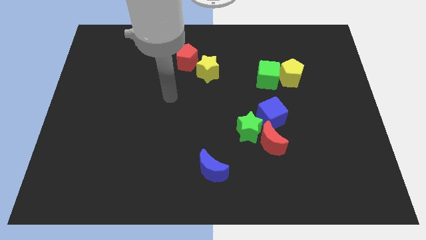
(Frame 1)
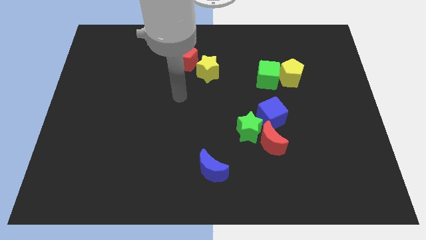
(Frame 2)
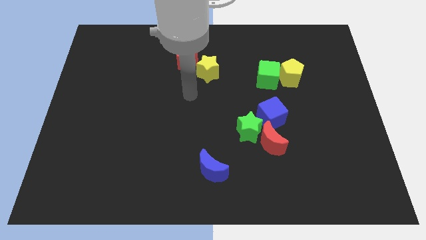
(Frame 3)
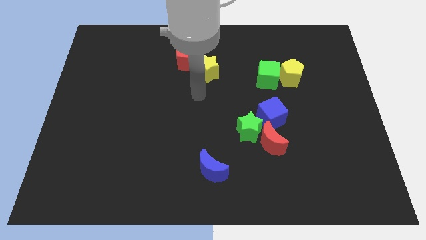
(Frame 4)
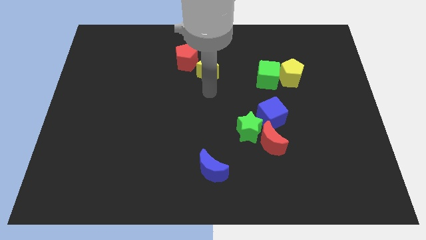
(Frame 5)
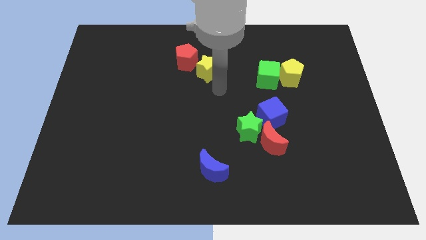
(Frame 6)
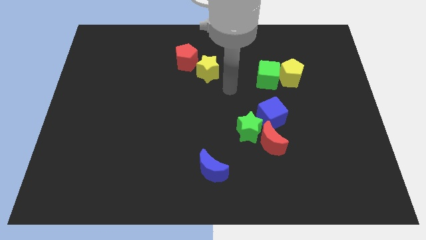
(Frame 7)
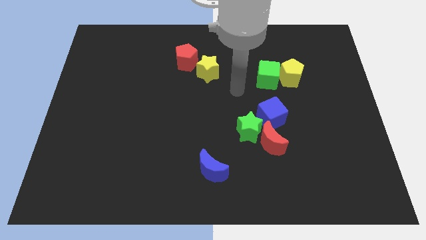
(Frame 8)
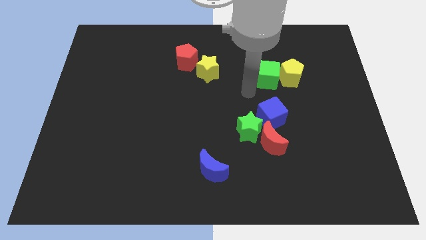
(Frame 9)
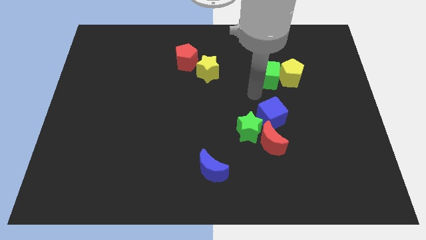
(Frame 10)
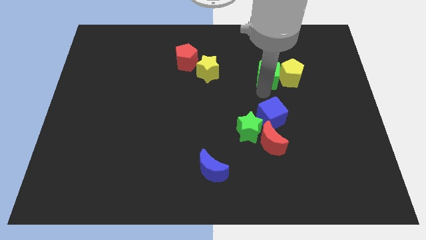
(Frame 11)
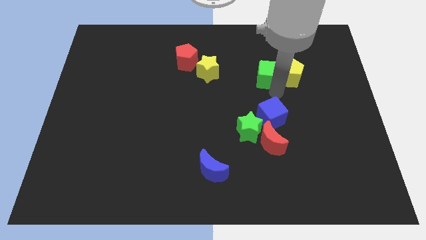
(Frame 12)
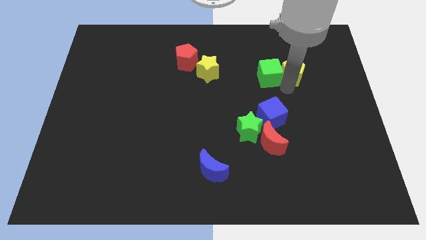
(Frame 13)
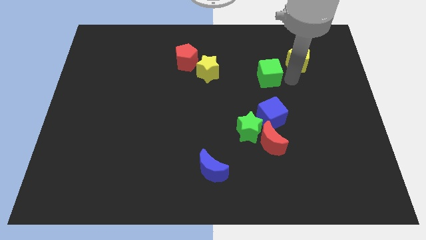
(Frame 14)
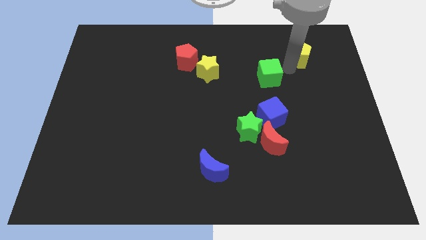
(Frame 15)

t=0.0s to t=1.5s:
move the green cube away from the yellow pentagon

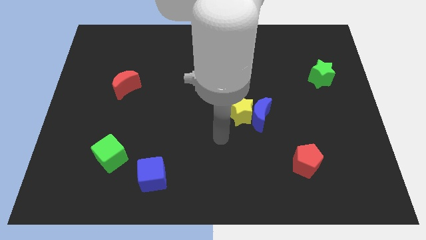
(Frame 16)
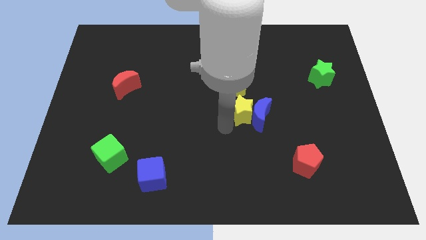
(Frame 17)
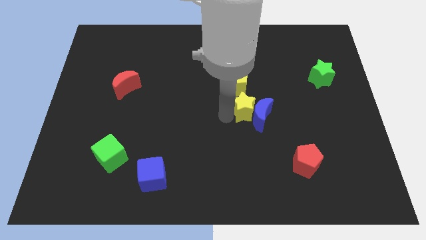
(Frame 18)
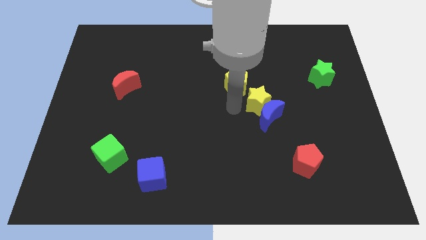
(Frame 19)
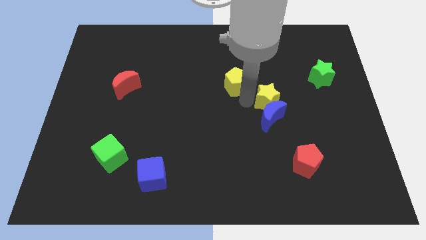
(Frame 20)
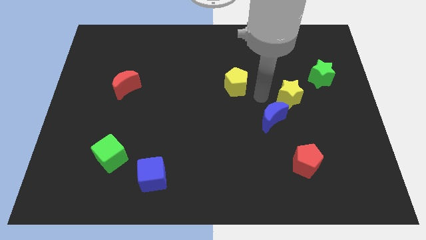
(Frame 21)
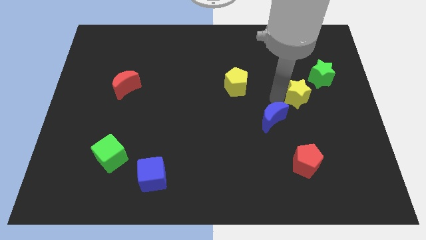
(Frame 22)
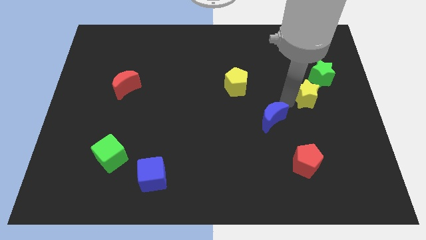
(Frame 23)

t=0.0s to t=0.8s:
move the blue moon away from the yellow star

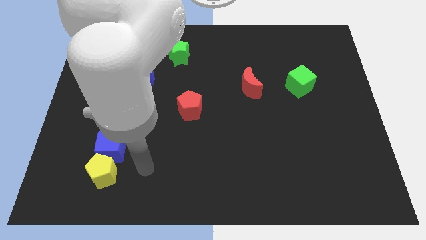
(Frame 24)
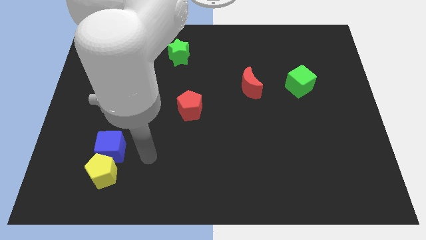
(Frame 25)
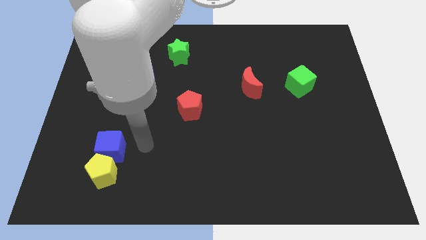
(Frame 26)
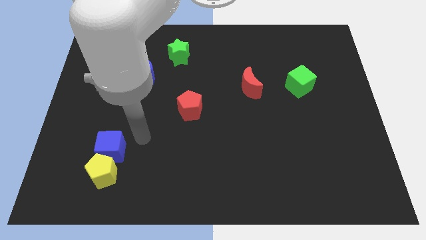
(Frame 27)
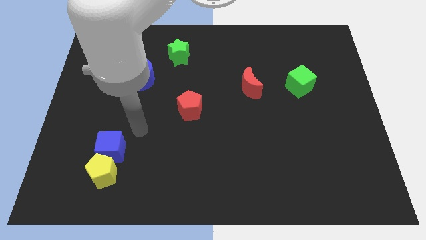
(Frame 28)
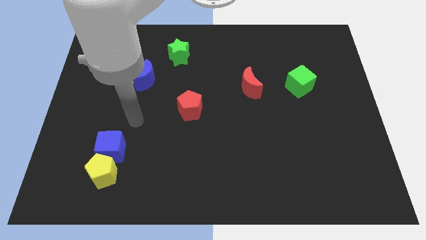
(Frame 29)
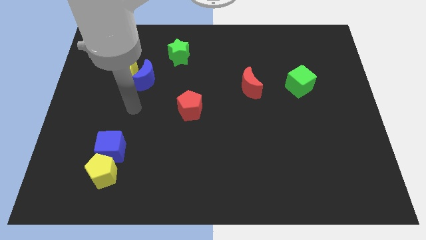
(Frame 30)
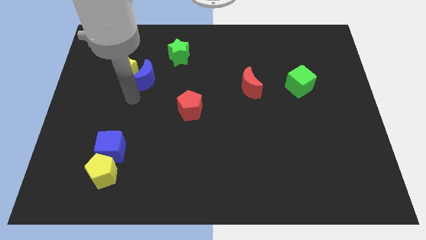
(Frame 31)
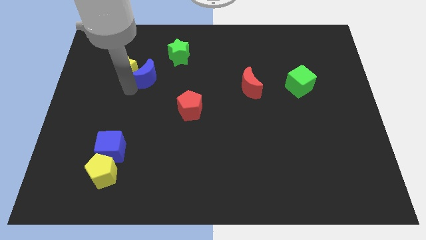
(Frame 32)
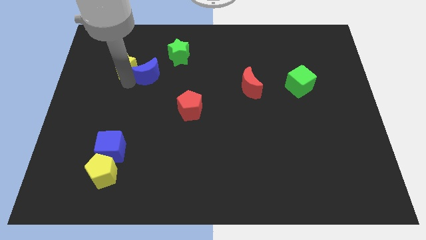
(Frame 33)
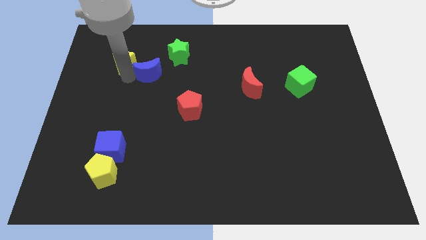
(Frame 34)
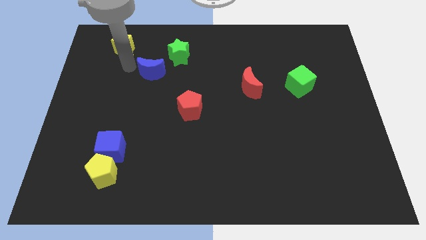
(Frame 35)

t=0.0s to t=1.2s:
pull the blue moon apart from the yellow star

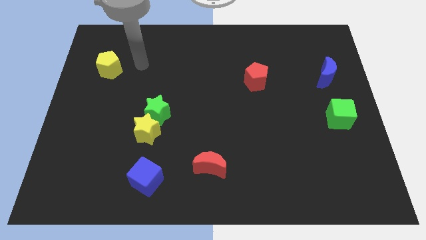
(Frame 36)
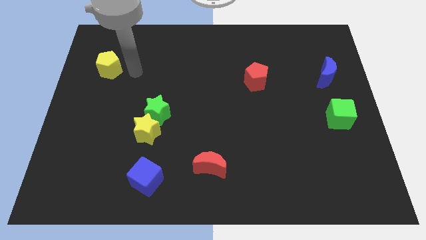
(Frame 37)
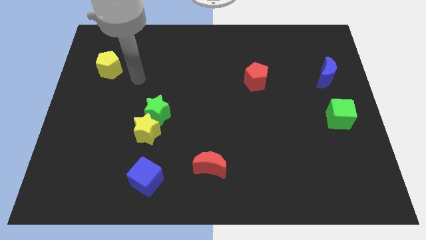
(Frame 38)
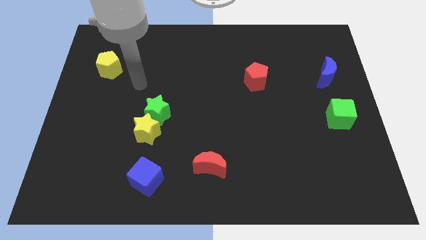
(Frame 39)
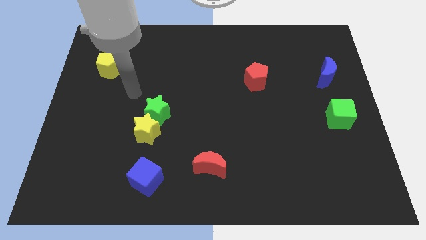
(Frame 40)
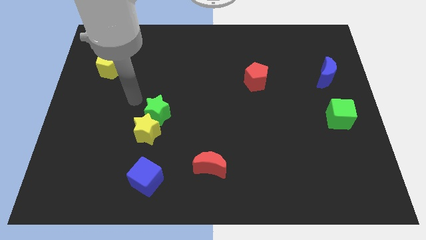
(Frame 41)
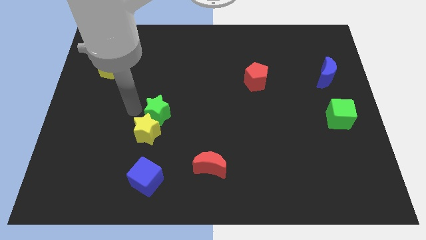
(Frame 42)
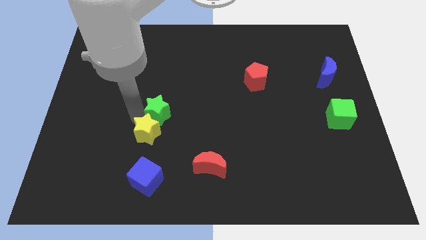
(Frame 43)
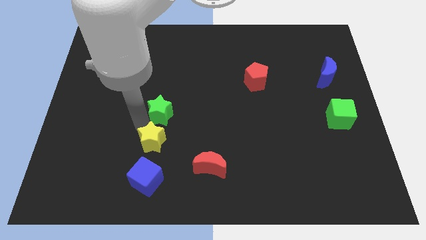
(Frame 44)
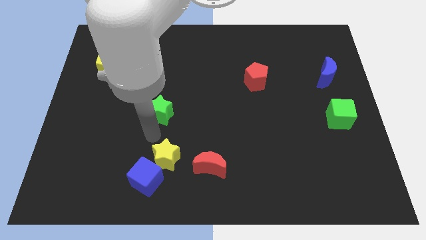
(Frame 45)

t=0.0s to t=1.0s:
pull the green star apart from the yellow star

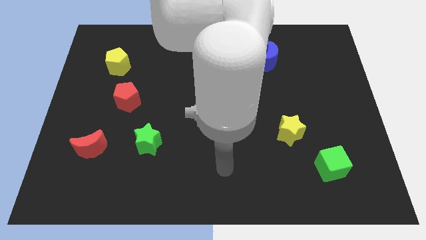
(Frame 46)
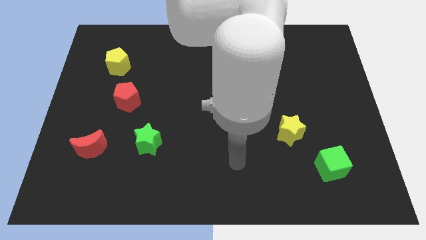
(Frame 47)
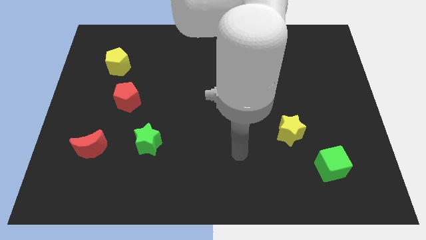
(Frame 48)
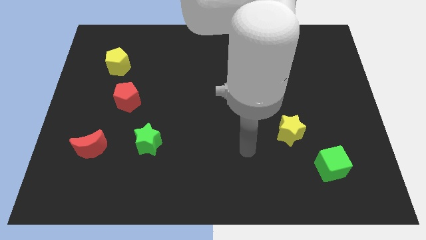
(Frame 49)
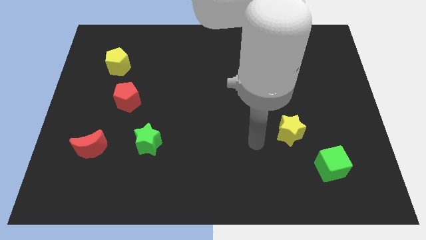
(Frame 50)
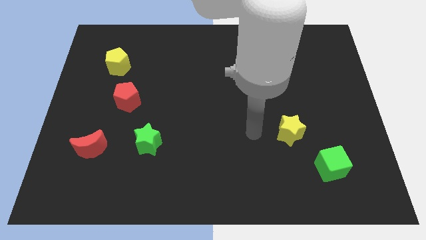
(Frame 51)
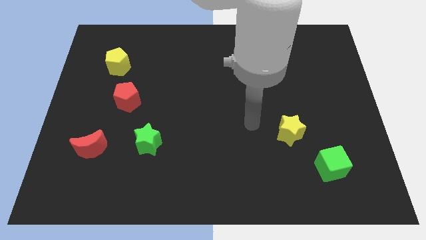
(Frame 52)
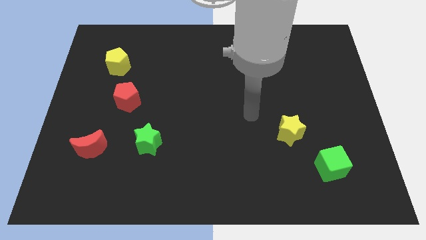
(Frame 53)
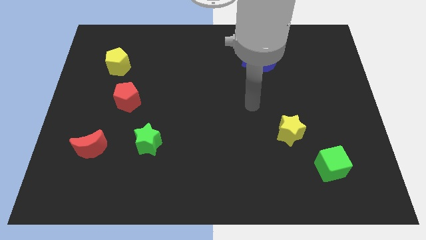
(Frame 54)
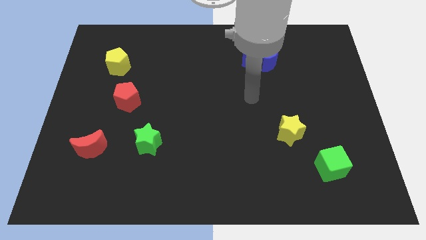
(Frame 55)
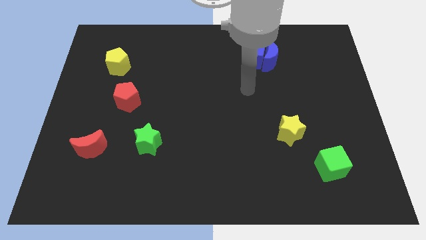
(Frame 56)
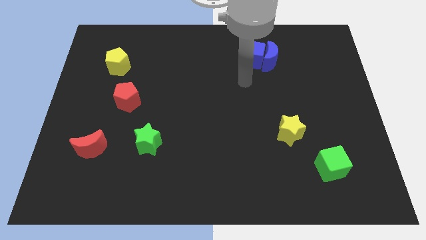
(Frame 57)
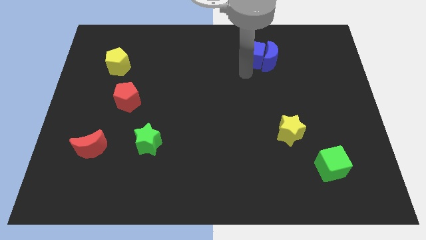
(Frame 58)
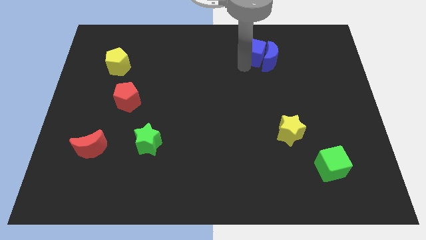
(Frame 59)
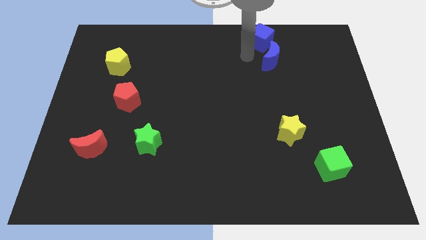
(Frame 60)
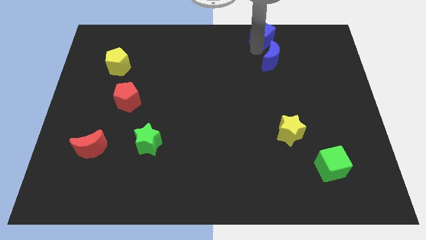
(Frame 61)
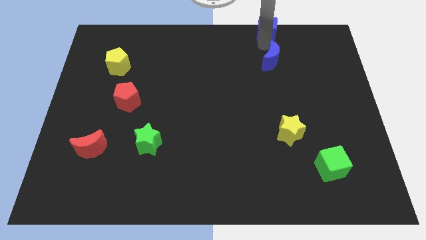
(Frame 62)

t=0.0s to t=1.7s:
pull the blue moon apart from the blue cube

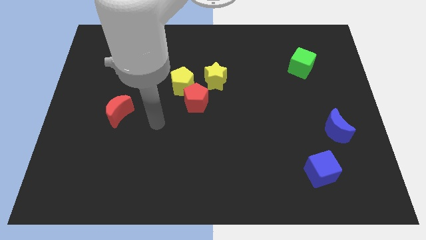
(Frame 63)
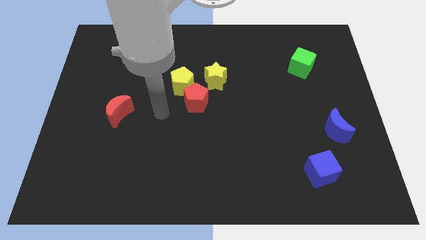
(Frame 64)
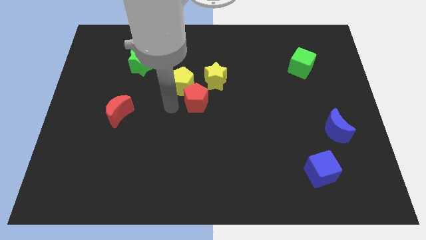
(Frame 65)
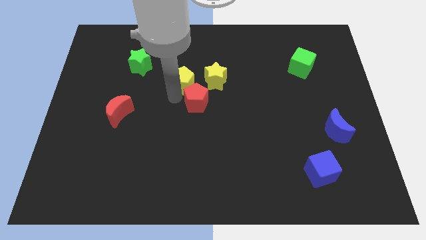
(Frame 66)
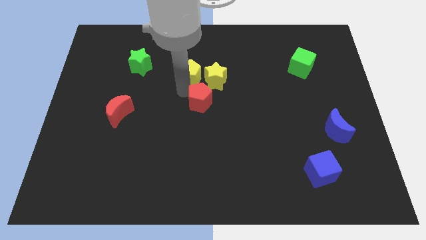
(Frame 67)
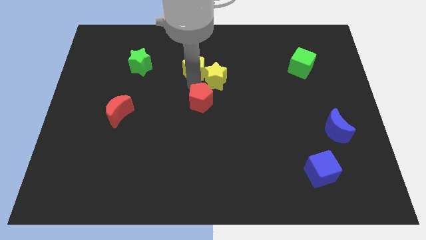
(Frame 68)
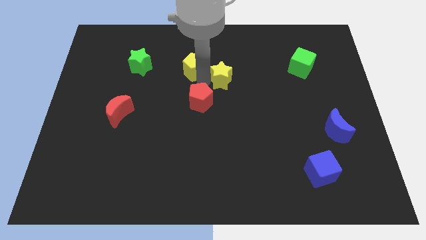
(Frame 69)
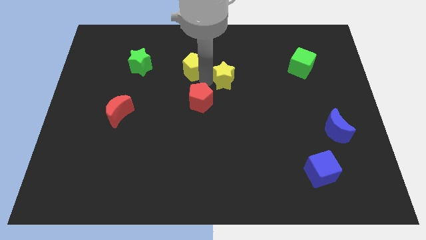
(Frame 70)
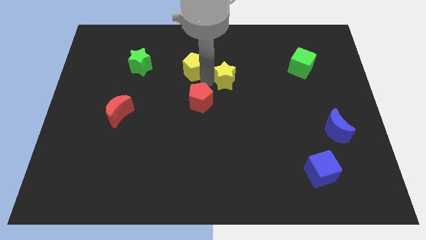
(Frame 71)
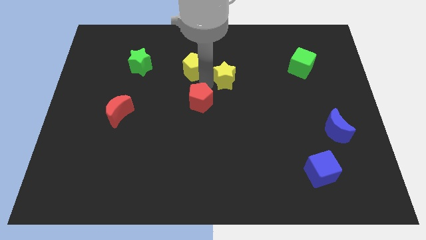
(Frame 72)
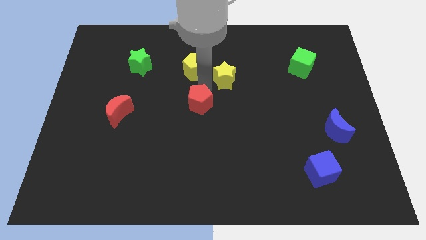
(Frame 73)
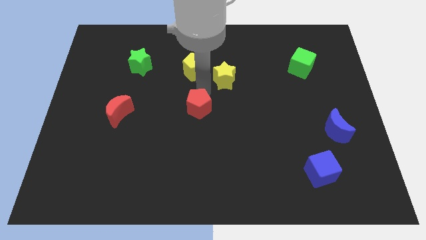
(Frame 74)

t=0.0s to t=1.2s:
separate the red pentagon from the yellow pentagon and yellow star

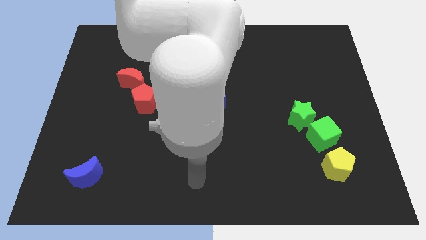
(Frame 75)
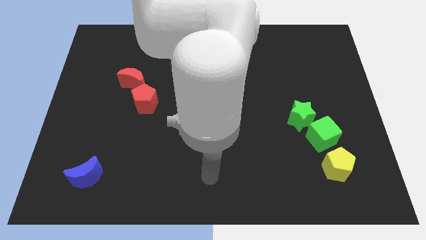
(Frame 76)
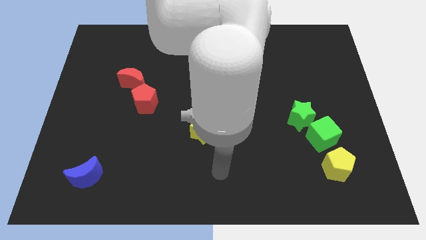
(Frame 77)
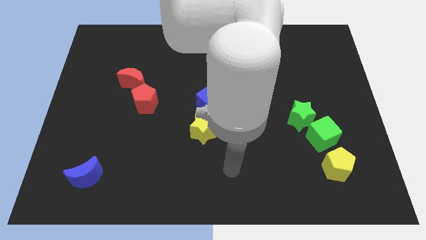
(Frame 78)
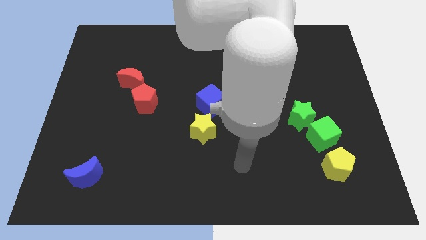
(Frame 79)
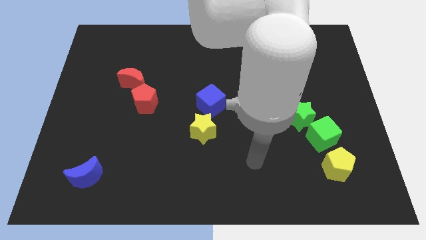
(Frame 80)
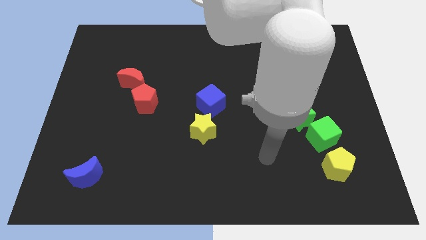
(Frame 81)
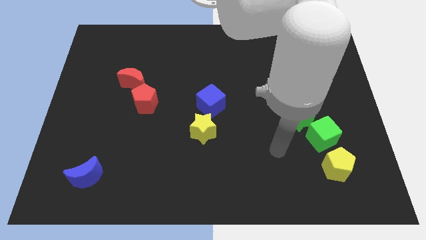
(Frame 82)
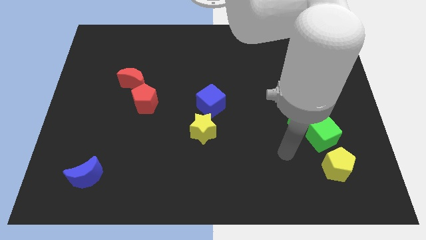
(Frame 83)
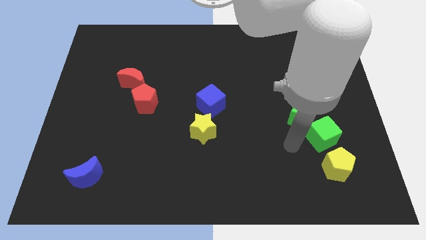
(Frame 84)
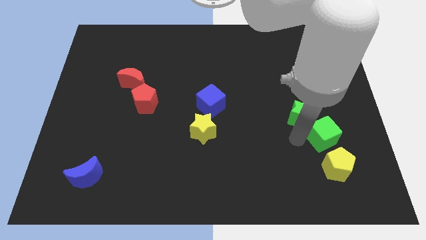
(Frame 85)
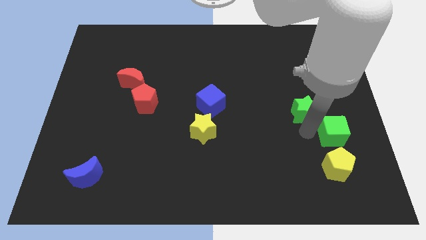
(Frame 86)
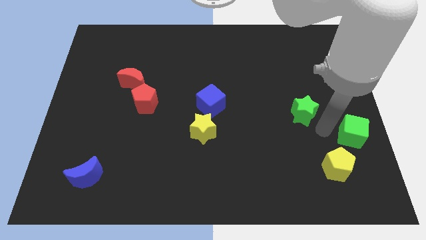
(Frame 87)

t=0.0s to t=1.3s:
move the green star away from the green cube

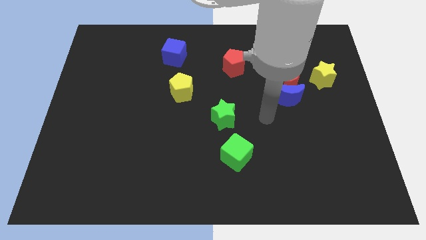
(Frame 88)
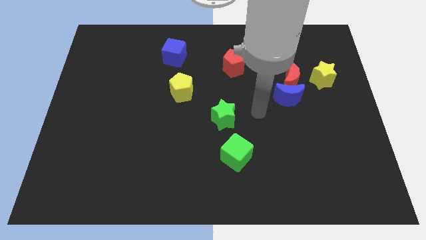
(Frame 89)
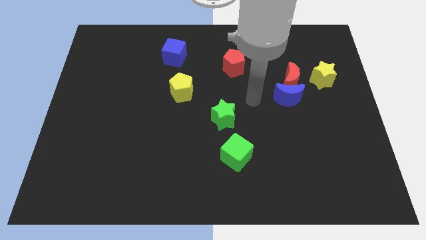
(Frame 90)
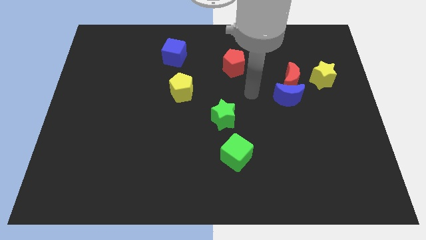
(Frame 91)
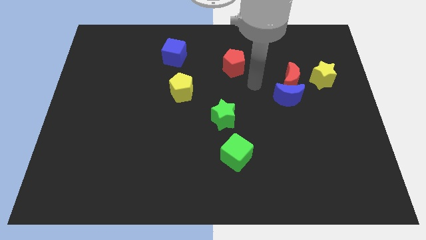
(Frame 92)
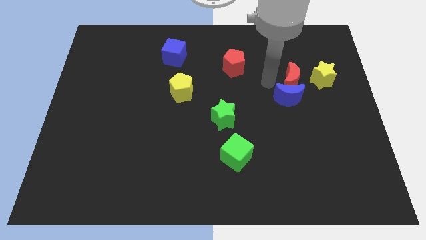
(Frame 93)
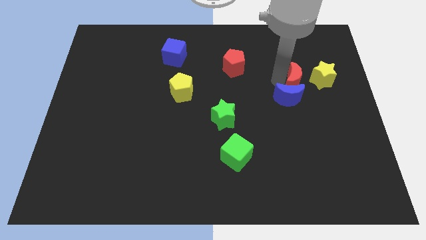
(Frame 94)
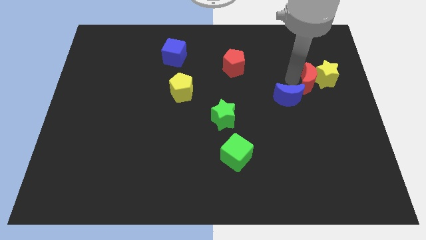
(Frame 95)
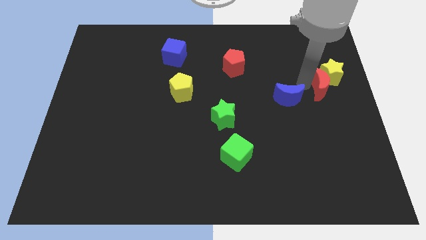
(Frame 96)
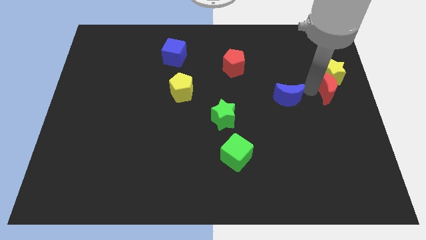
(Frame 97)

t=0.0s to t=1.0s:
separate the blue moon from the red moon
